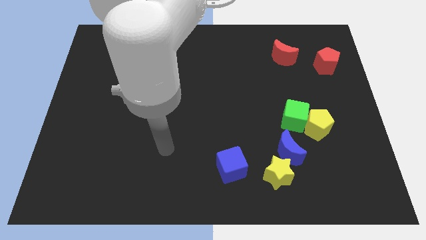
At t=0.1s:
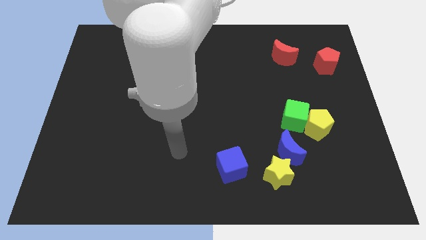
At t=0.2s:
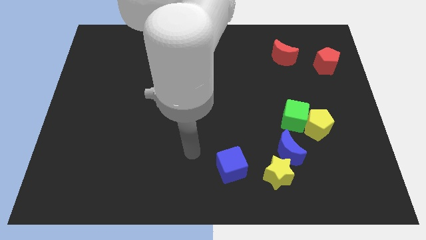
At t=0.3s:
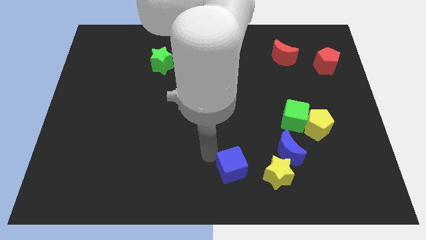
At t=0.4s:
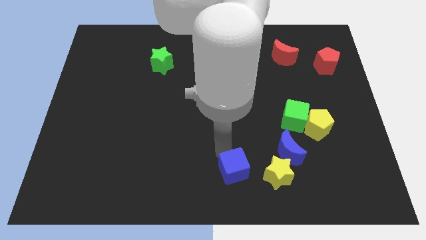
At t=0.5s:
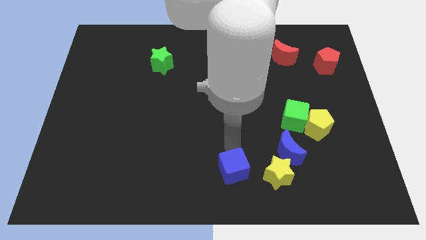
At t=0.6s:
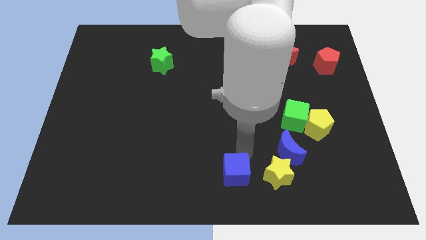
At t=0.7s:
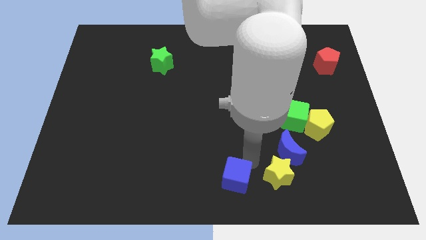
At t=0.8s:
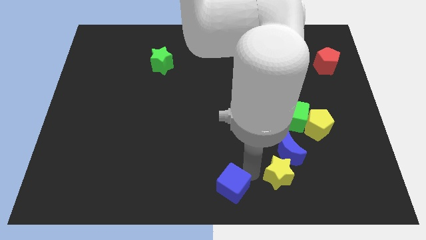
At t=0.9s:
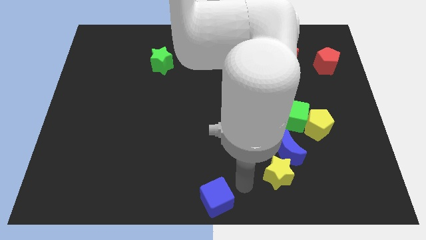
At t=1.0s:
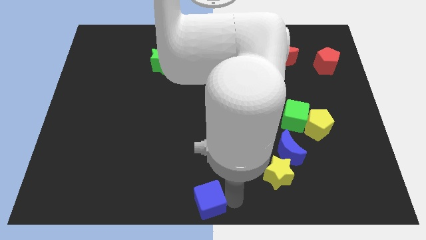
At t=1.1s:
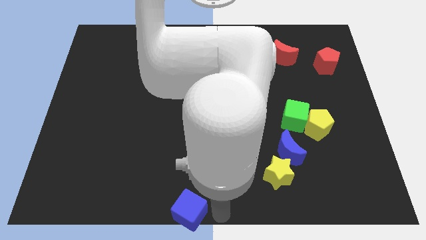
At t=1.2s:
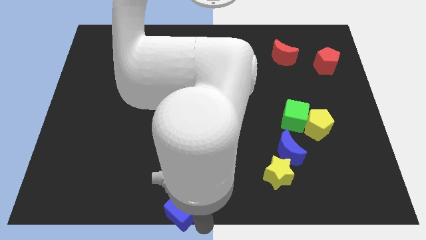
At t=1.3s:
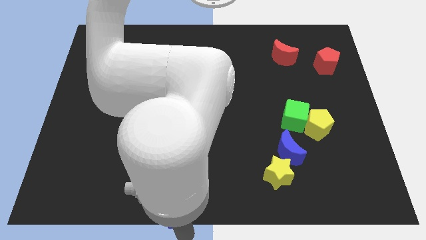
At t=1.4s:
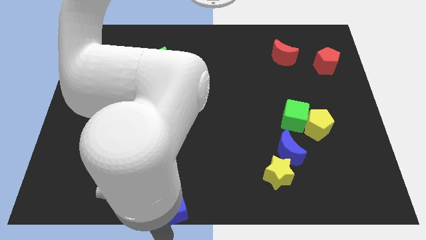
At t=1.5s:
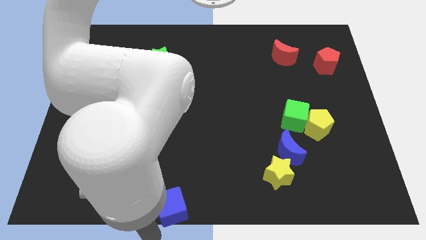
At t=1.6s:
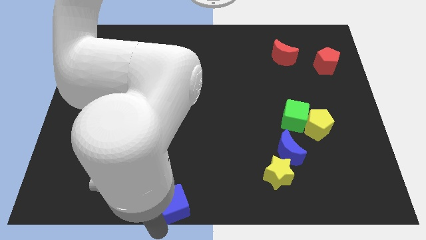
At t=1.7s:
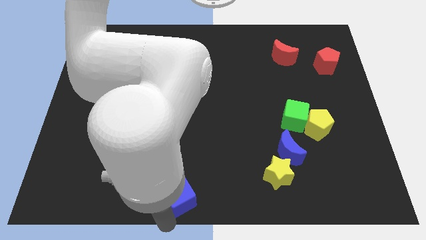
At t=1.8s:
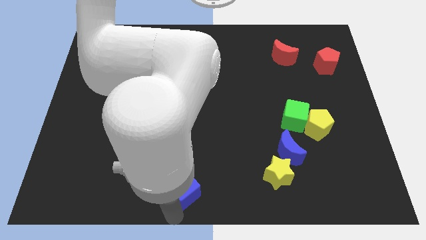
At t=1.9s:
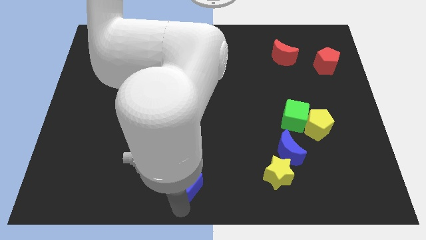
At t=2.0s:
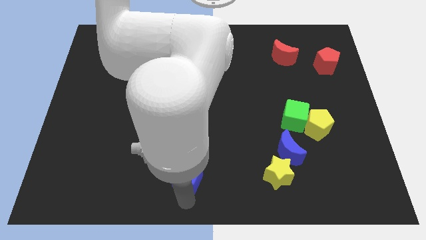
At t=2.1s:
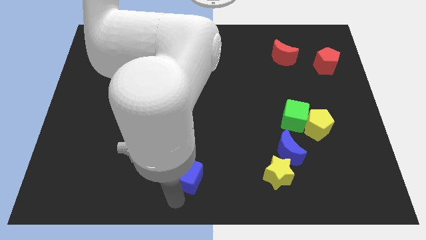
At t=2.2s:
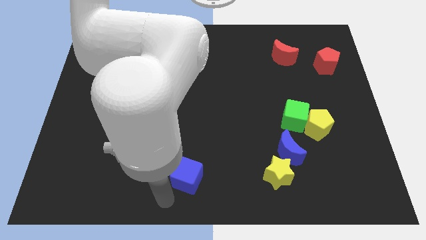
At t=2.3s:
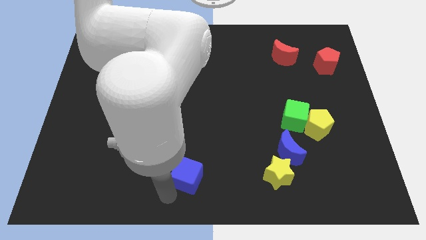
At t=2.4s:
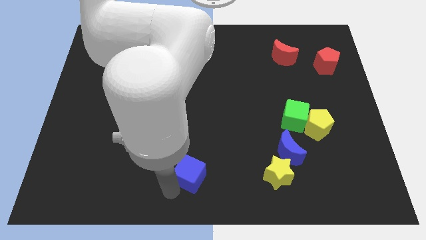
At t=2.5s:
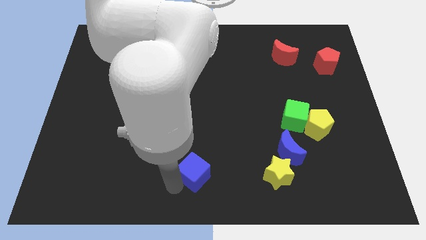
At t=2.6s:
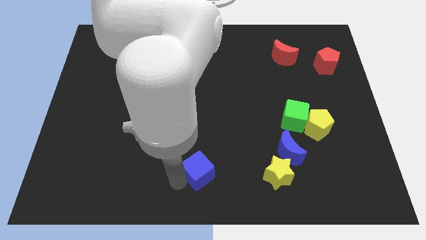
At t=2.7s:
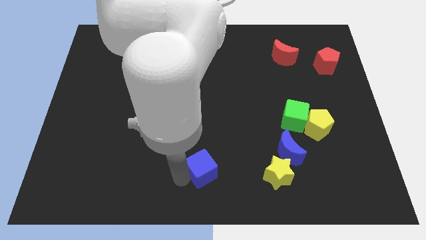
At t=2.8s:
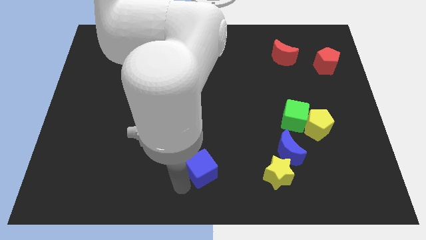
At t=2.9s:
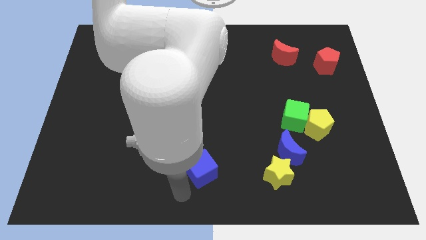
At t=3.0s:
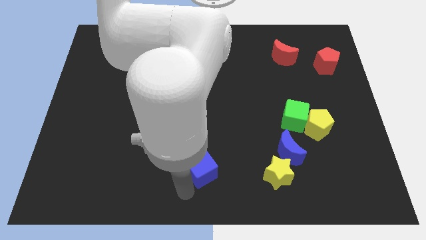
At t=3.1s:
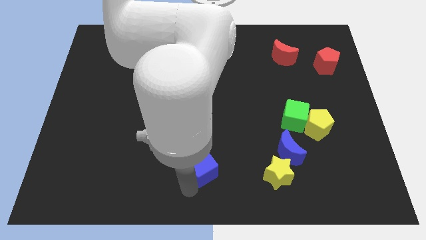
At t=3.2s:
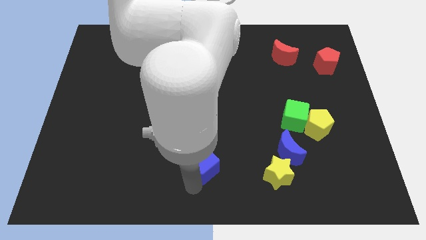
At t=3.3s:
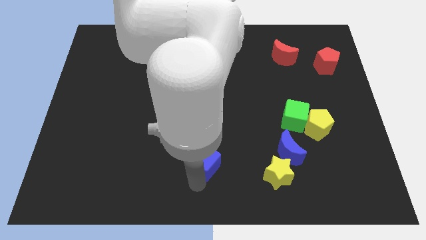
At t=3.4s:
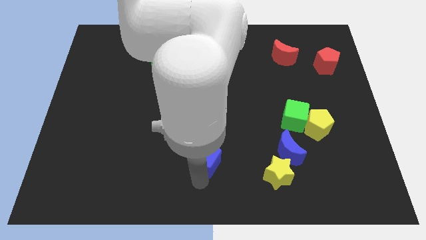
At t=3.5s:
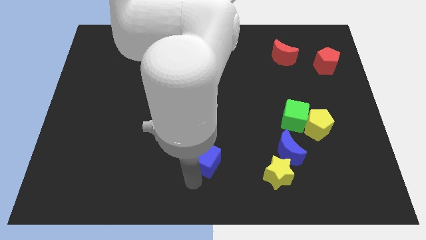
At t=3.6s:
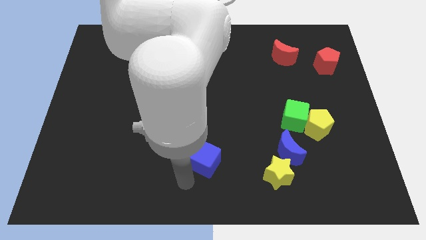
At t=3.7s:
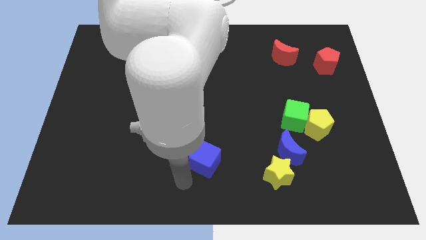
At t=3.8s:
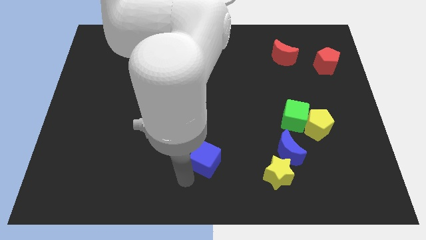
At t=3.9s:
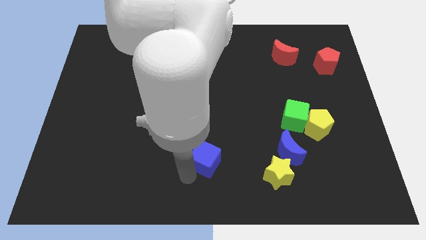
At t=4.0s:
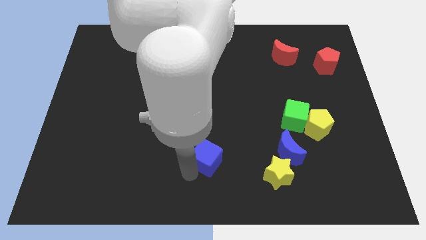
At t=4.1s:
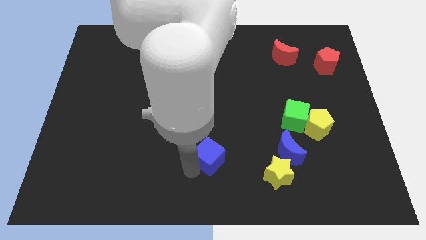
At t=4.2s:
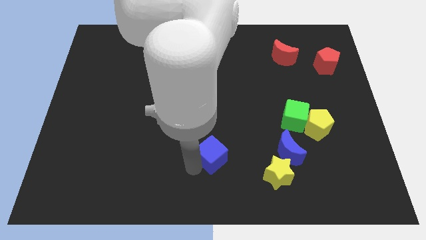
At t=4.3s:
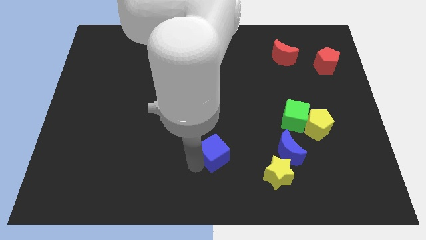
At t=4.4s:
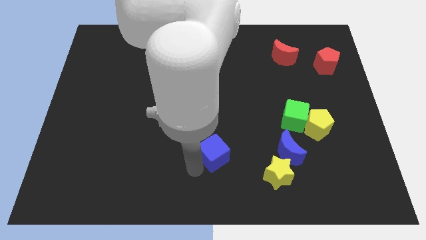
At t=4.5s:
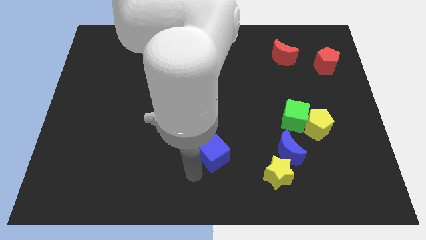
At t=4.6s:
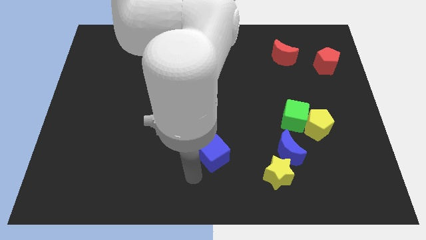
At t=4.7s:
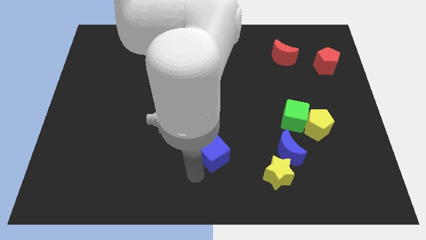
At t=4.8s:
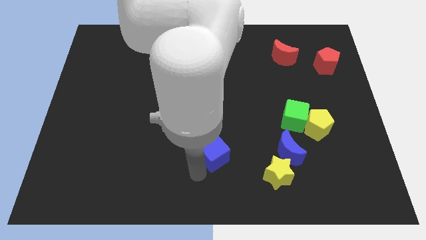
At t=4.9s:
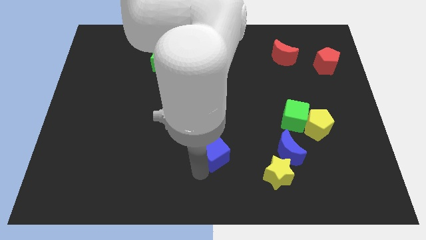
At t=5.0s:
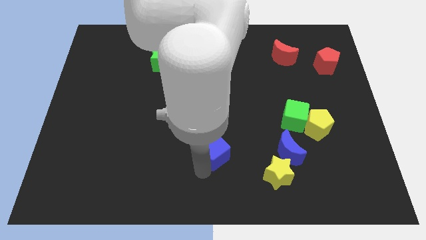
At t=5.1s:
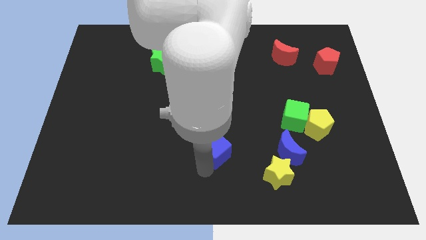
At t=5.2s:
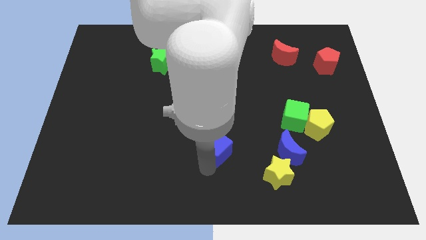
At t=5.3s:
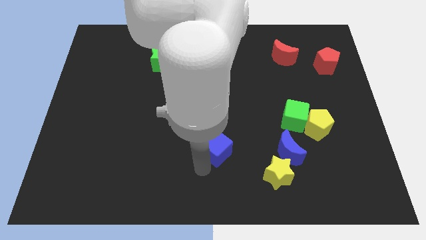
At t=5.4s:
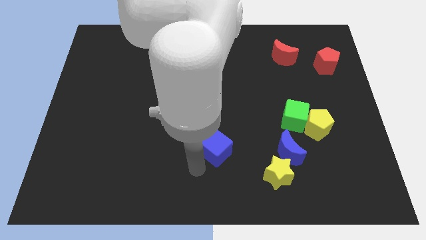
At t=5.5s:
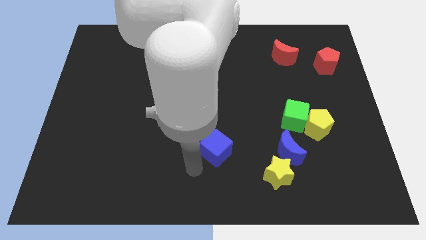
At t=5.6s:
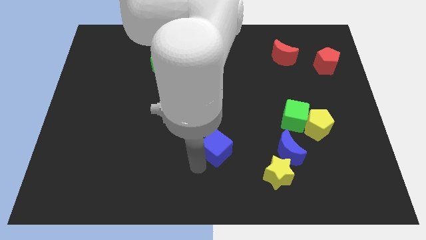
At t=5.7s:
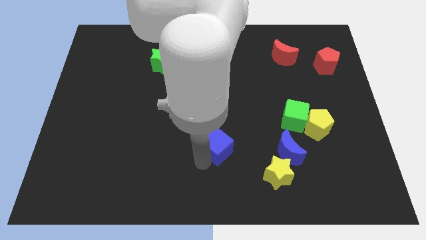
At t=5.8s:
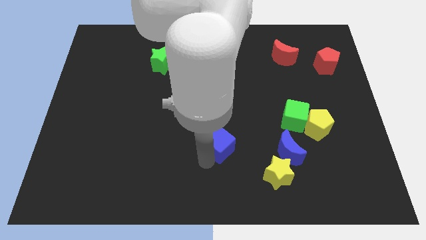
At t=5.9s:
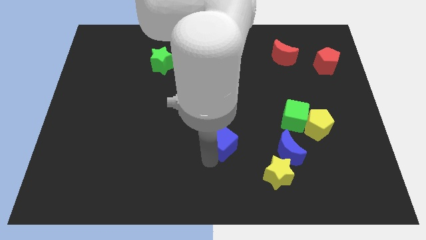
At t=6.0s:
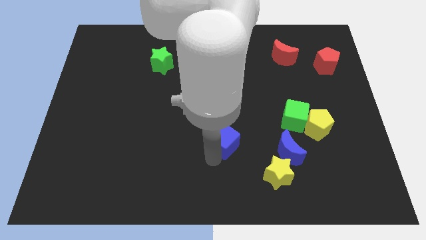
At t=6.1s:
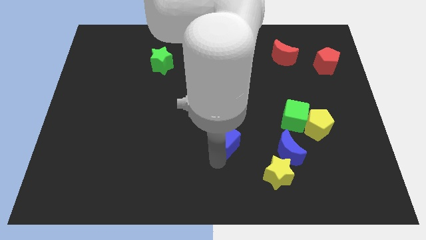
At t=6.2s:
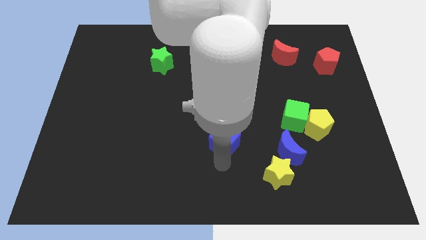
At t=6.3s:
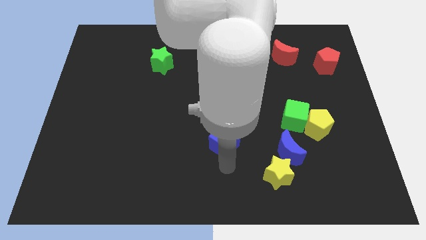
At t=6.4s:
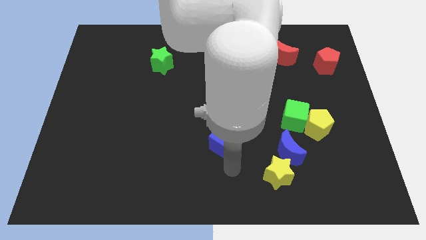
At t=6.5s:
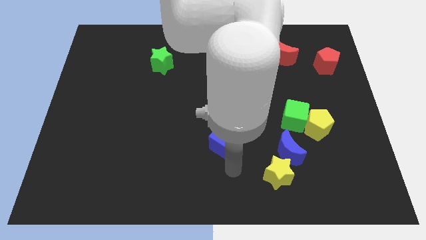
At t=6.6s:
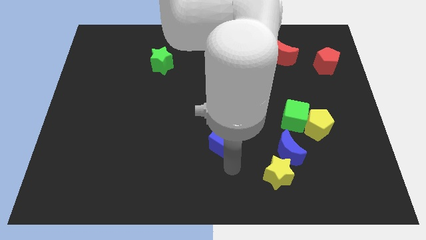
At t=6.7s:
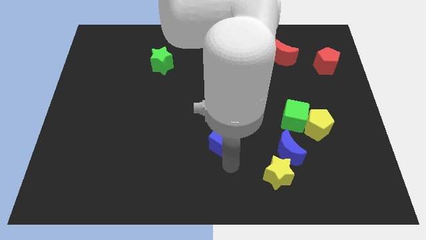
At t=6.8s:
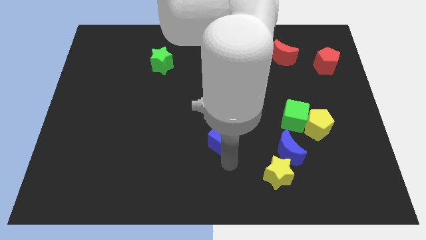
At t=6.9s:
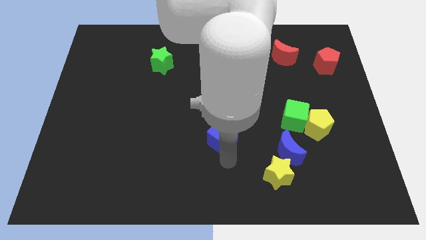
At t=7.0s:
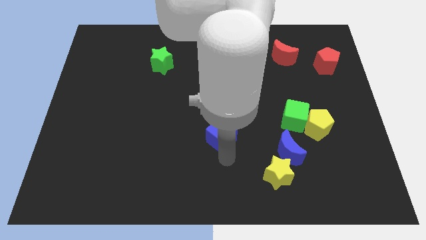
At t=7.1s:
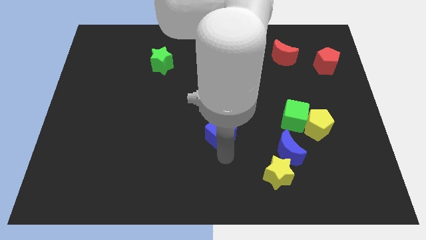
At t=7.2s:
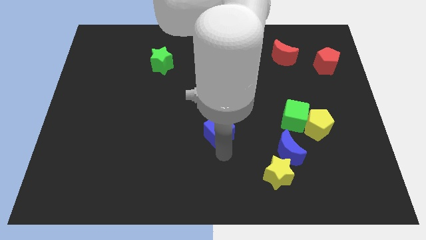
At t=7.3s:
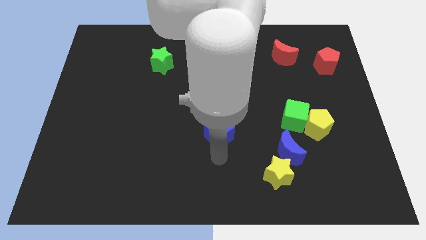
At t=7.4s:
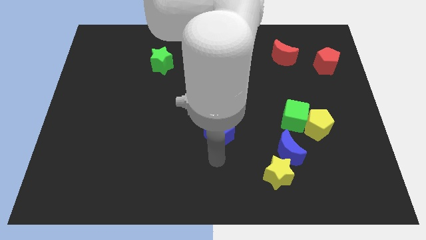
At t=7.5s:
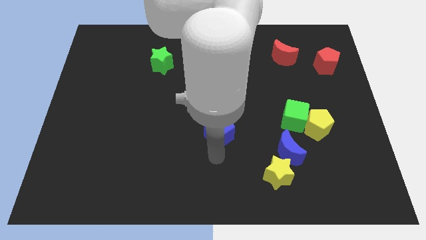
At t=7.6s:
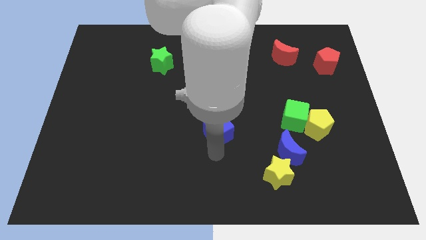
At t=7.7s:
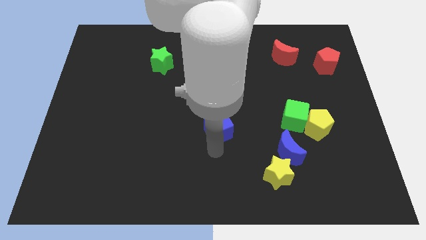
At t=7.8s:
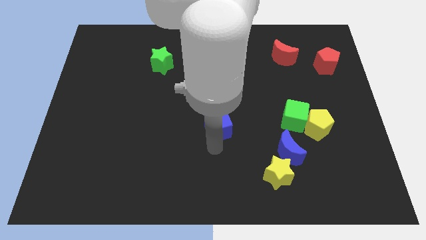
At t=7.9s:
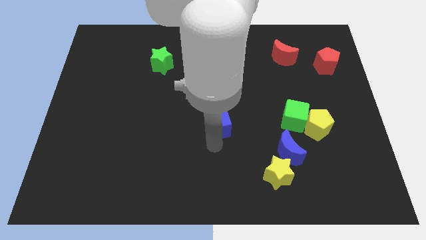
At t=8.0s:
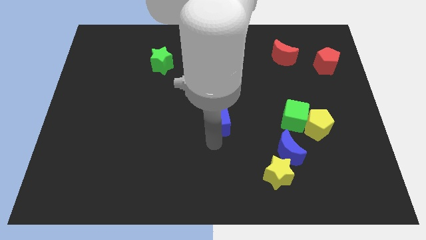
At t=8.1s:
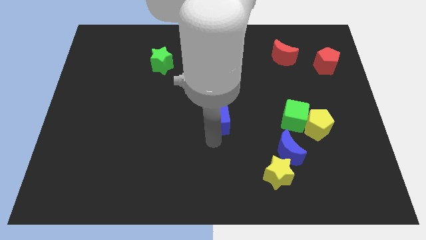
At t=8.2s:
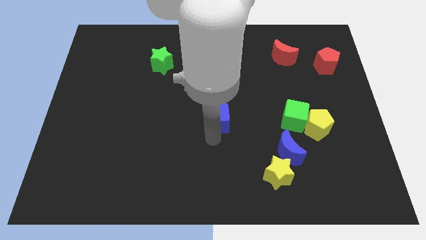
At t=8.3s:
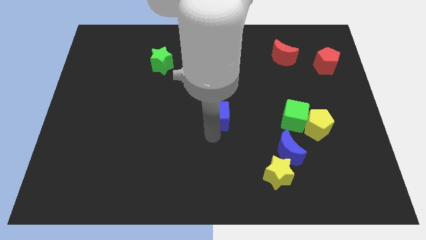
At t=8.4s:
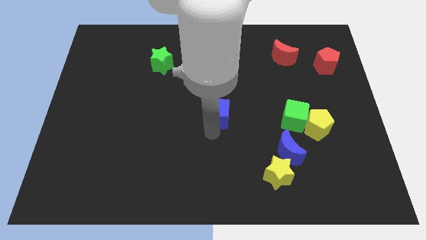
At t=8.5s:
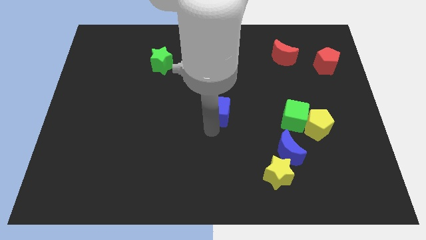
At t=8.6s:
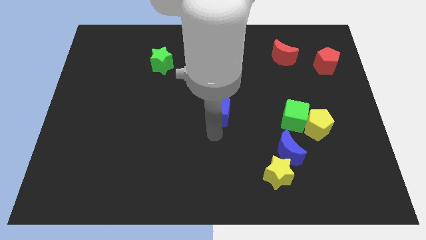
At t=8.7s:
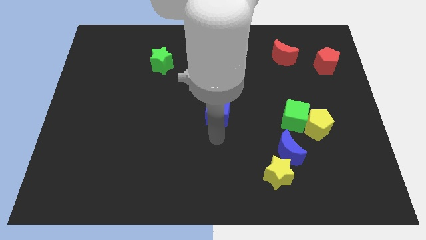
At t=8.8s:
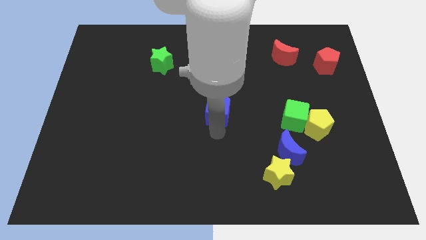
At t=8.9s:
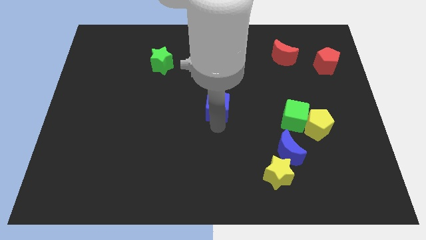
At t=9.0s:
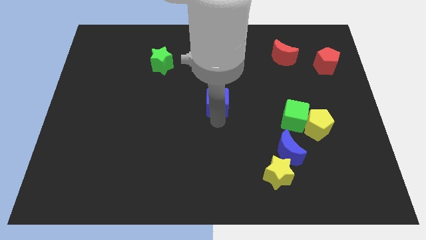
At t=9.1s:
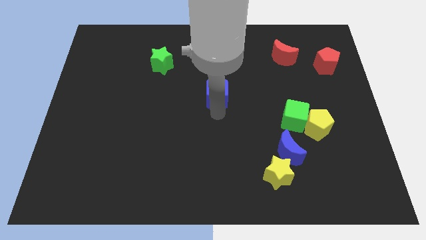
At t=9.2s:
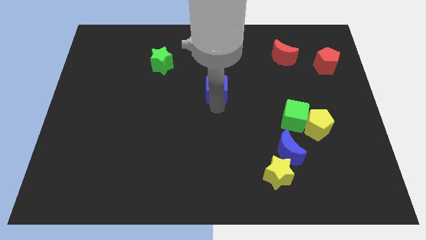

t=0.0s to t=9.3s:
move the blue cube upwards
